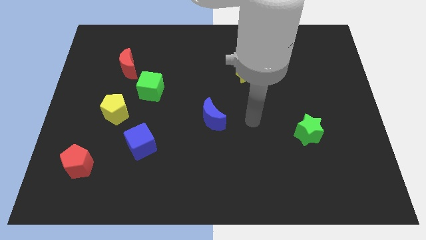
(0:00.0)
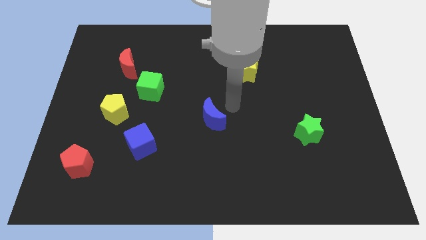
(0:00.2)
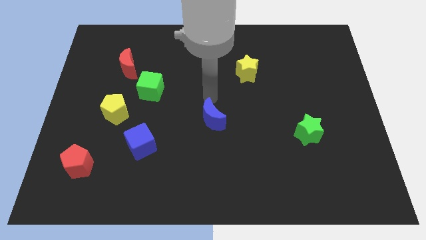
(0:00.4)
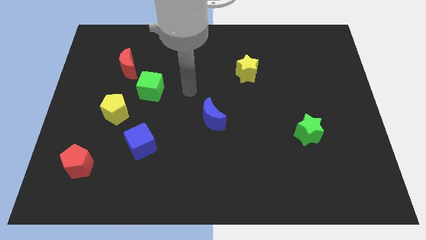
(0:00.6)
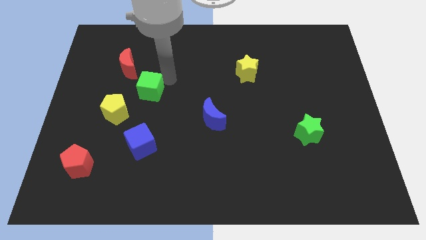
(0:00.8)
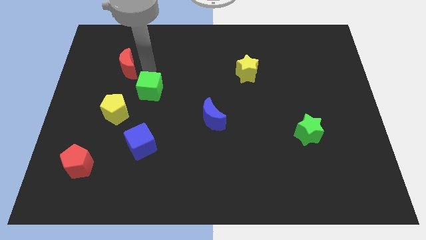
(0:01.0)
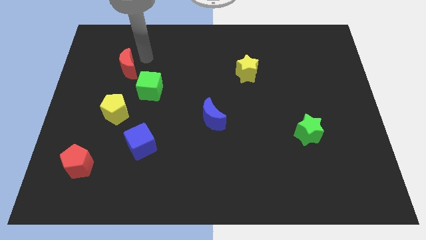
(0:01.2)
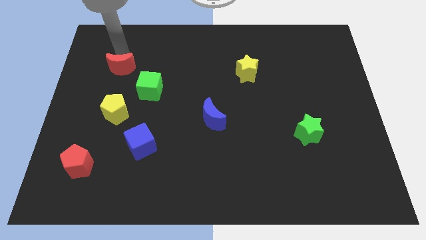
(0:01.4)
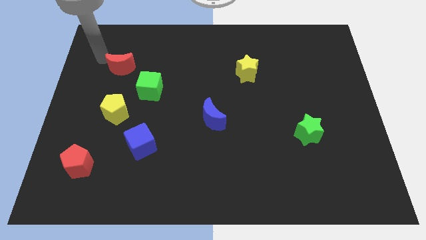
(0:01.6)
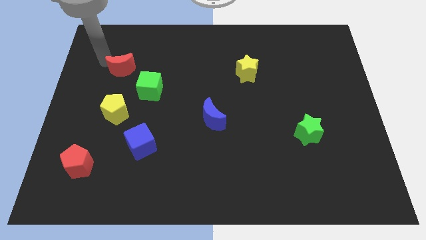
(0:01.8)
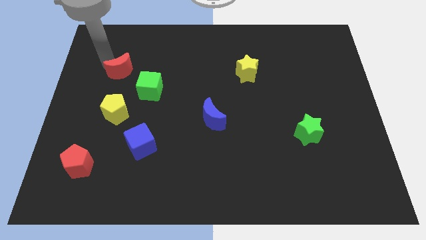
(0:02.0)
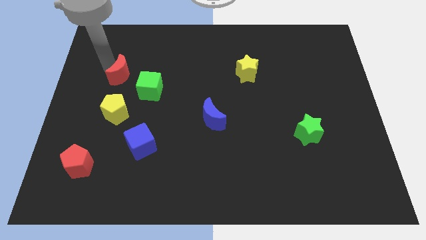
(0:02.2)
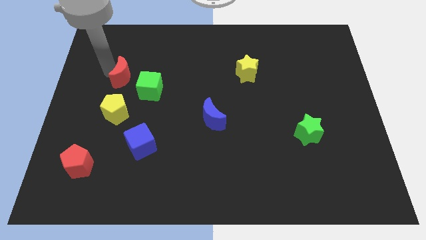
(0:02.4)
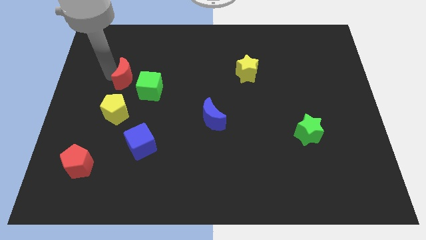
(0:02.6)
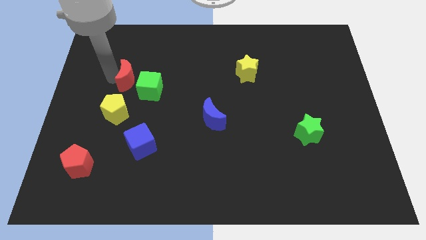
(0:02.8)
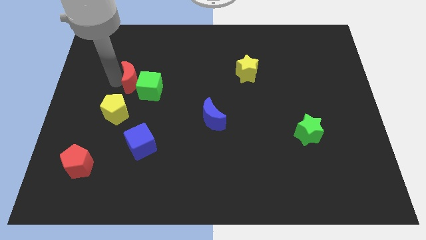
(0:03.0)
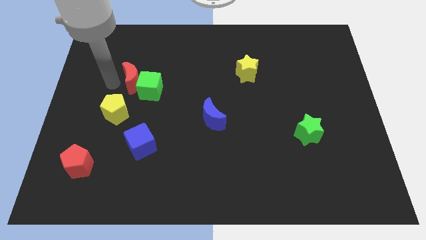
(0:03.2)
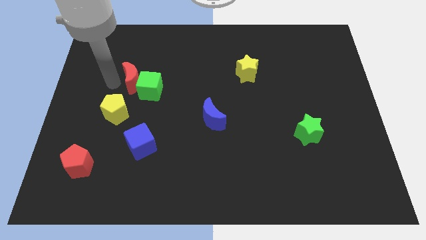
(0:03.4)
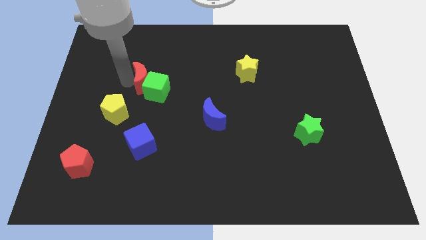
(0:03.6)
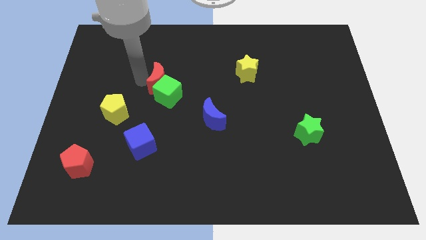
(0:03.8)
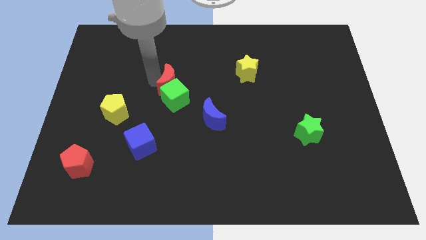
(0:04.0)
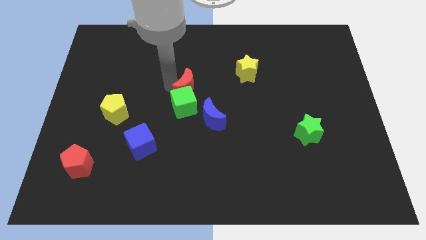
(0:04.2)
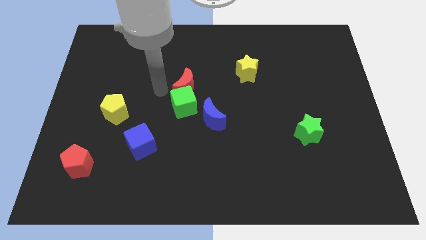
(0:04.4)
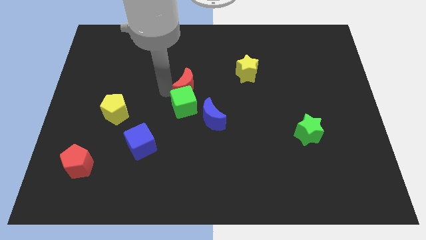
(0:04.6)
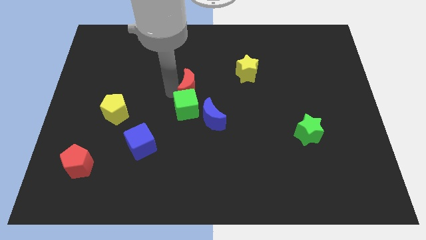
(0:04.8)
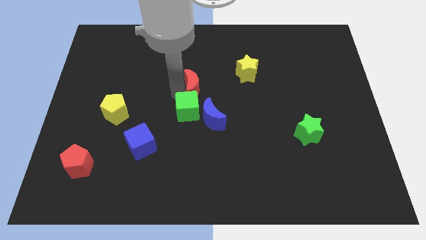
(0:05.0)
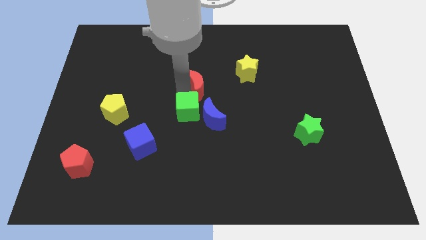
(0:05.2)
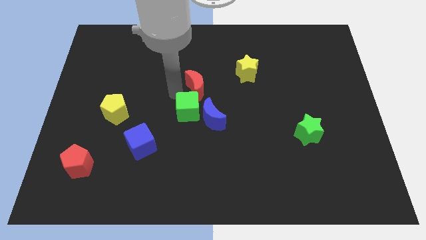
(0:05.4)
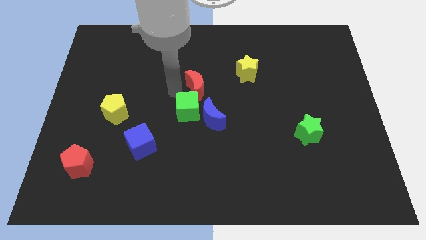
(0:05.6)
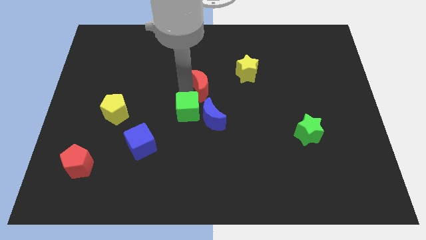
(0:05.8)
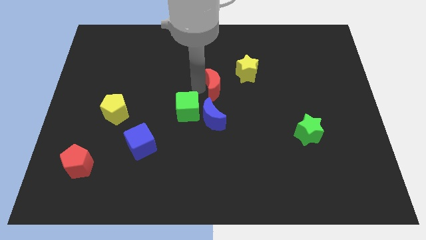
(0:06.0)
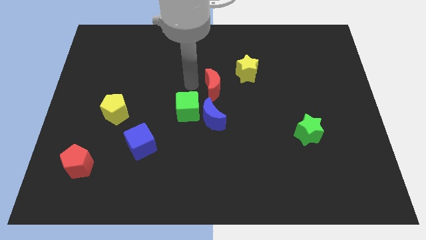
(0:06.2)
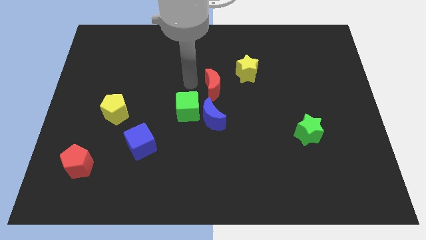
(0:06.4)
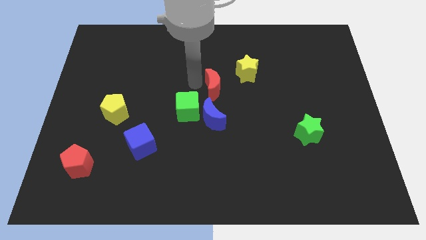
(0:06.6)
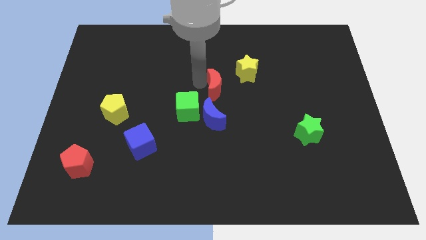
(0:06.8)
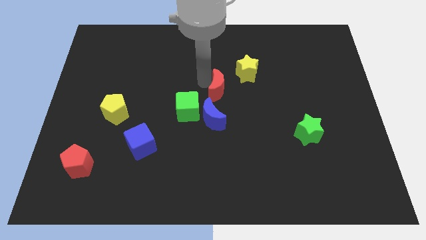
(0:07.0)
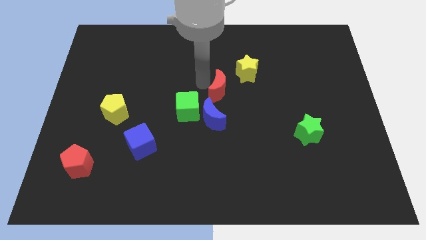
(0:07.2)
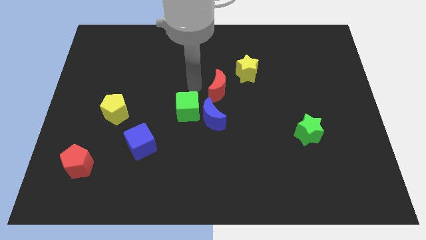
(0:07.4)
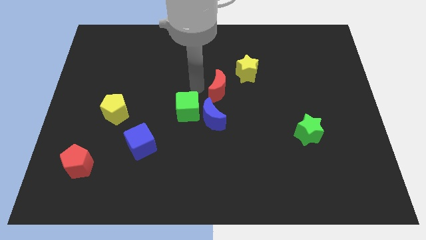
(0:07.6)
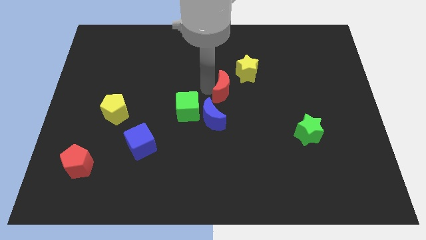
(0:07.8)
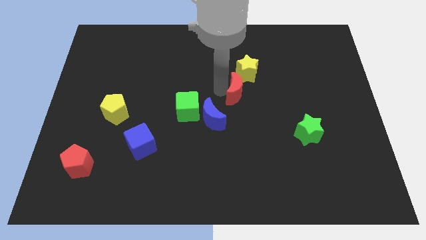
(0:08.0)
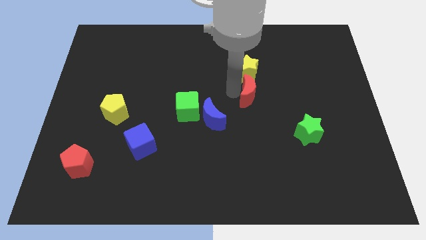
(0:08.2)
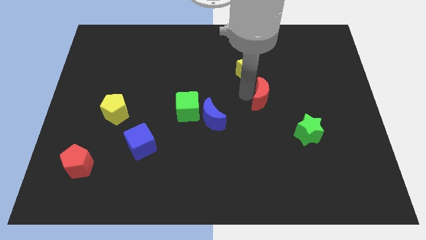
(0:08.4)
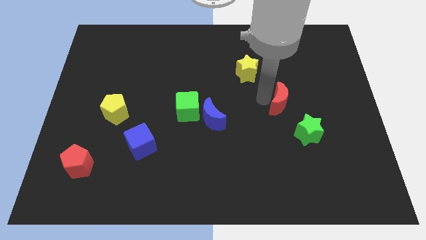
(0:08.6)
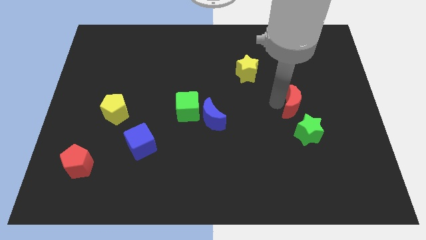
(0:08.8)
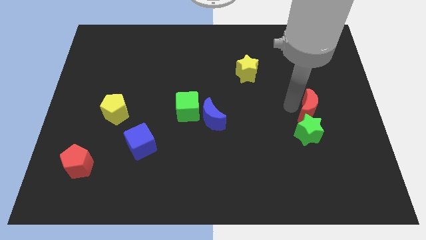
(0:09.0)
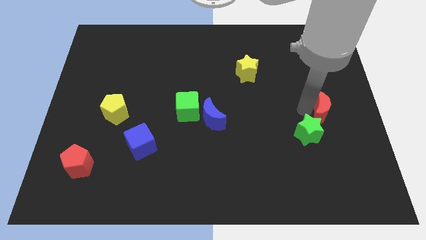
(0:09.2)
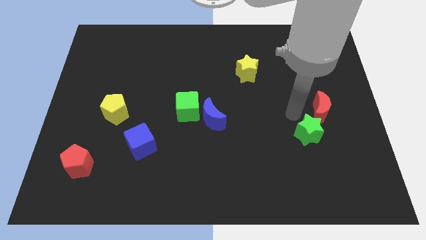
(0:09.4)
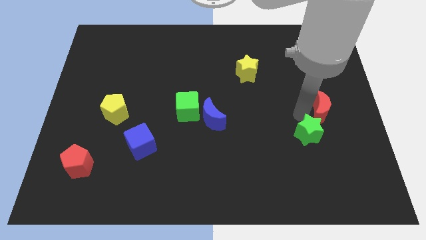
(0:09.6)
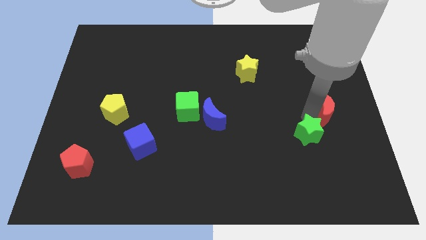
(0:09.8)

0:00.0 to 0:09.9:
push the red moon to the right side of the board

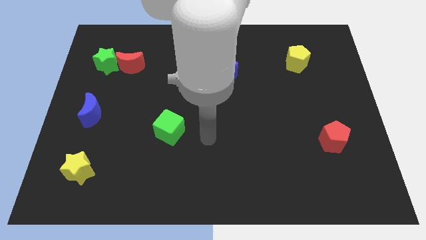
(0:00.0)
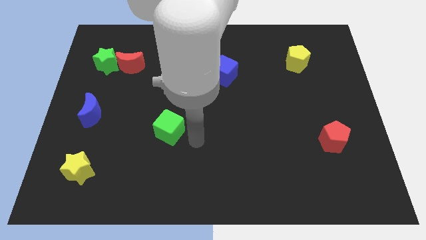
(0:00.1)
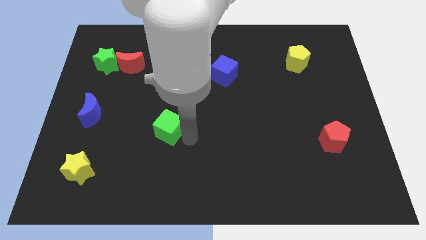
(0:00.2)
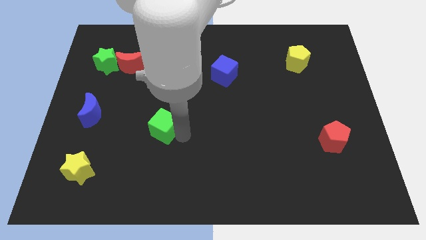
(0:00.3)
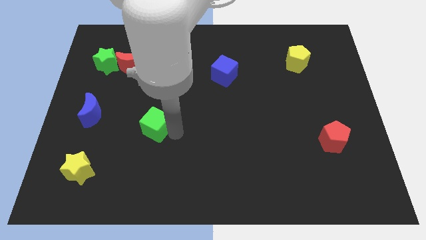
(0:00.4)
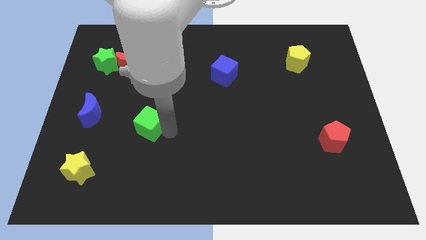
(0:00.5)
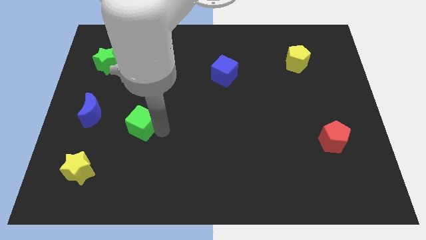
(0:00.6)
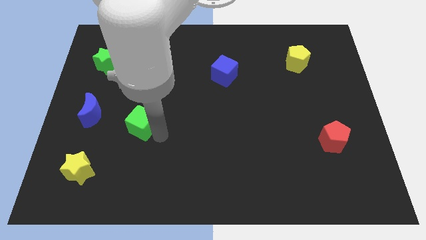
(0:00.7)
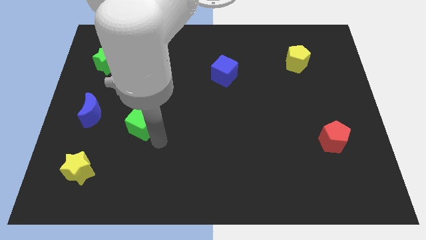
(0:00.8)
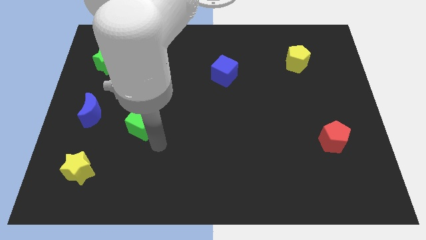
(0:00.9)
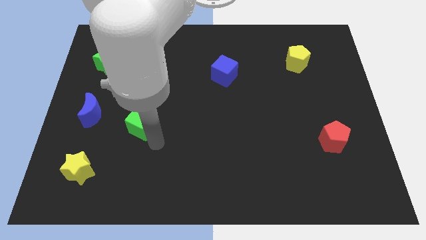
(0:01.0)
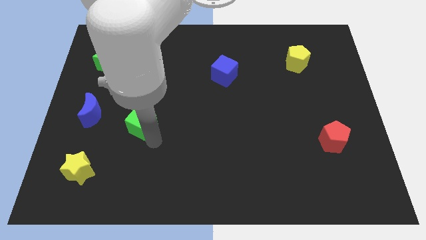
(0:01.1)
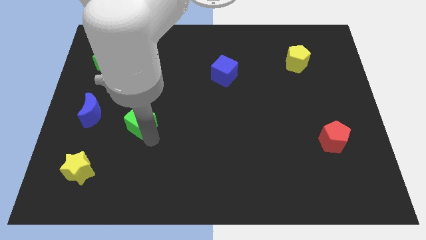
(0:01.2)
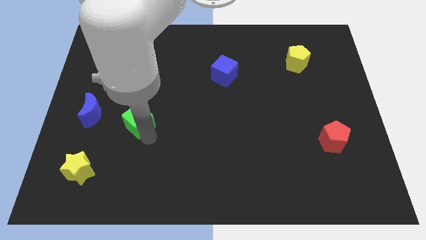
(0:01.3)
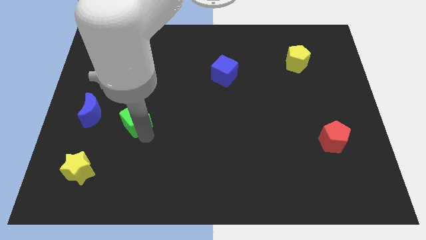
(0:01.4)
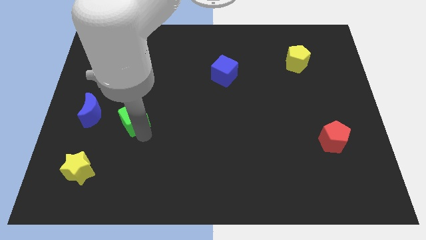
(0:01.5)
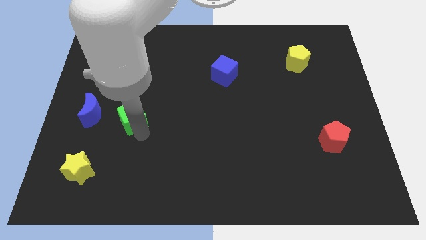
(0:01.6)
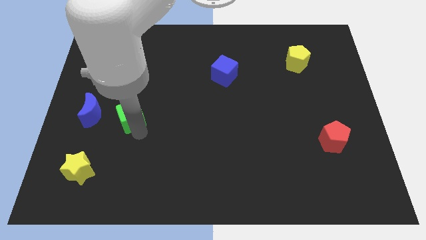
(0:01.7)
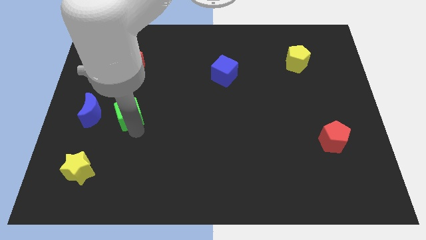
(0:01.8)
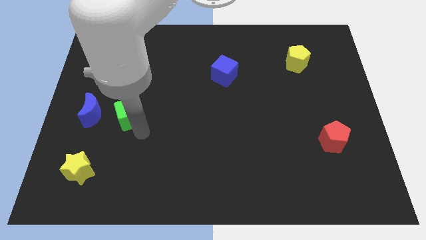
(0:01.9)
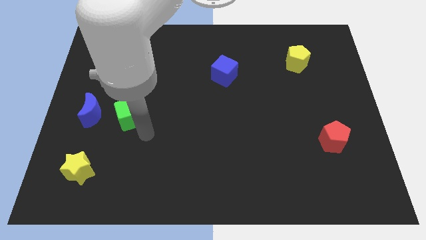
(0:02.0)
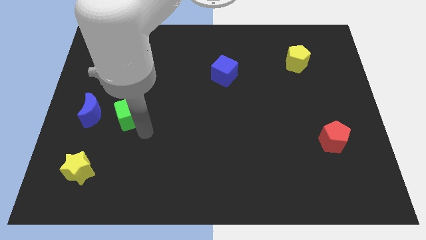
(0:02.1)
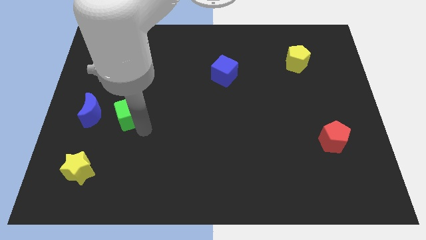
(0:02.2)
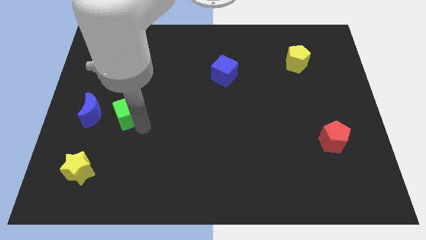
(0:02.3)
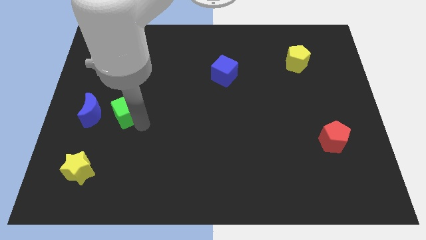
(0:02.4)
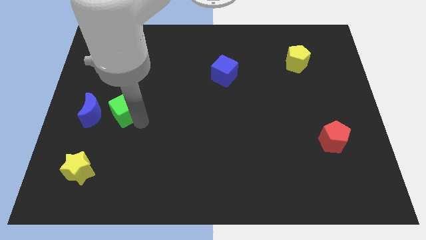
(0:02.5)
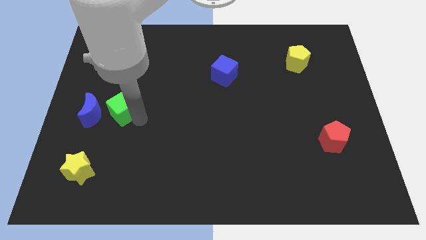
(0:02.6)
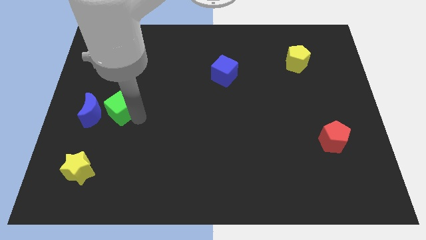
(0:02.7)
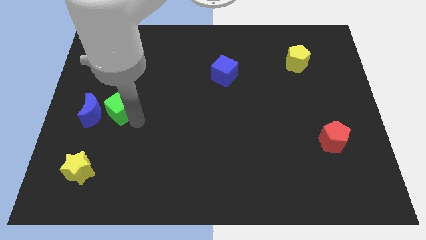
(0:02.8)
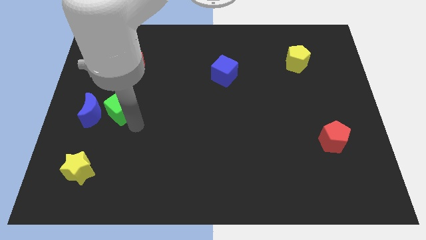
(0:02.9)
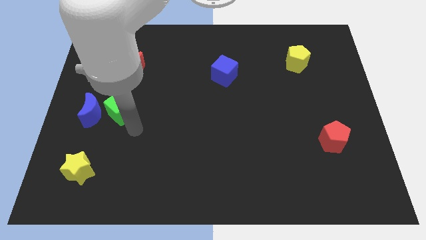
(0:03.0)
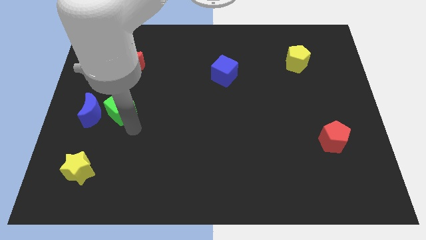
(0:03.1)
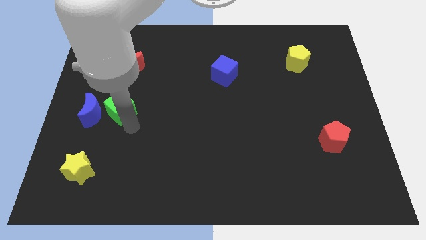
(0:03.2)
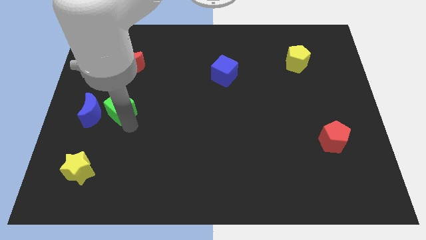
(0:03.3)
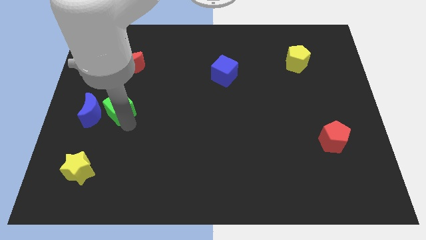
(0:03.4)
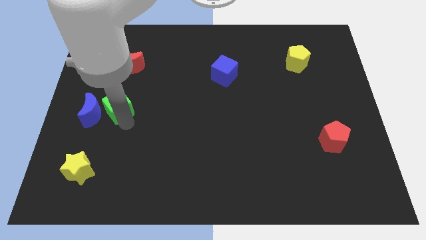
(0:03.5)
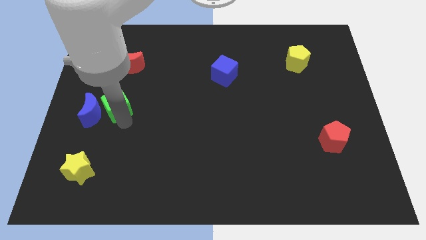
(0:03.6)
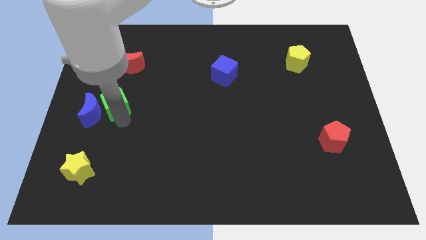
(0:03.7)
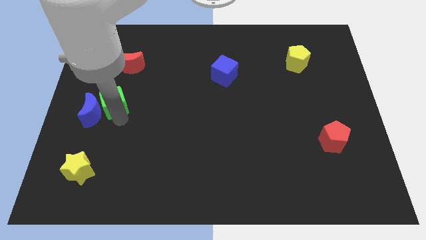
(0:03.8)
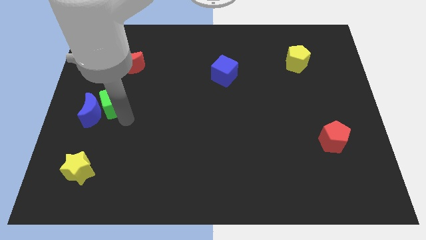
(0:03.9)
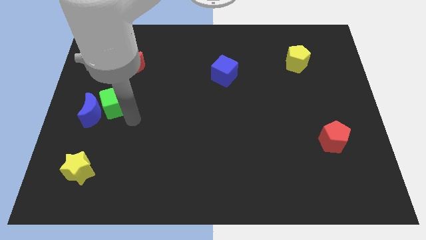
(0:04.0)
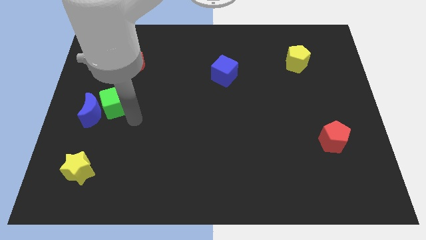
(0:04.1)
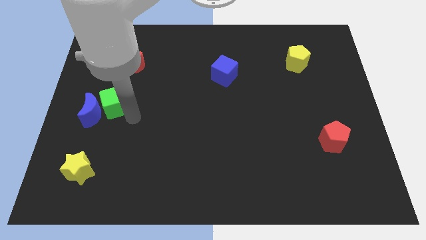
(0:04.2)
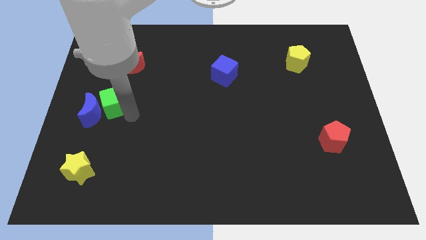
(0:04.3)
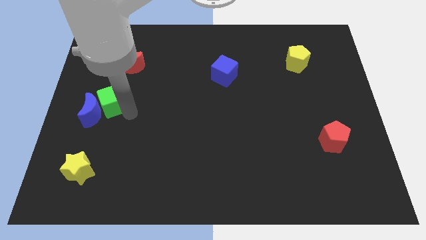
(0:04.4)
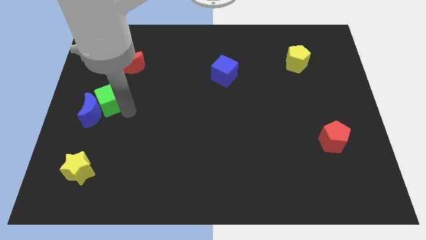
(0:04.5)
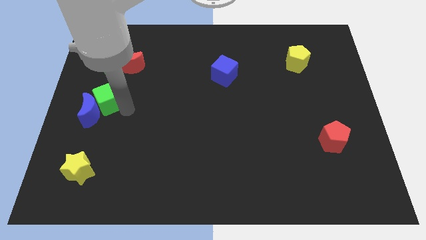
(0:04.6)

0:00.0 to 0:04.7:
push the green cube to the left side of the board
